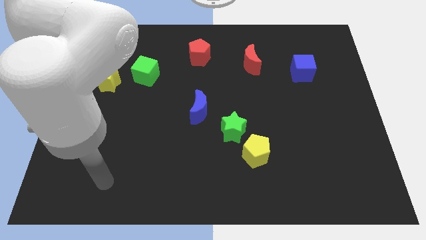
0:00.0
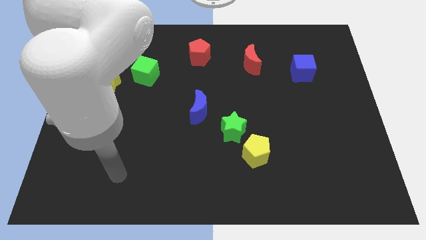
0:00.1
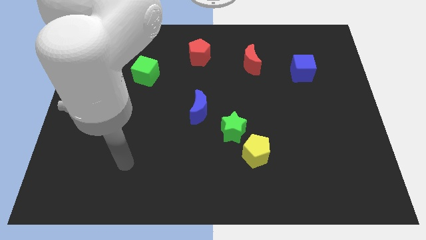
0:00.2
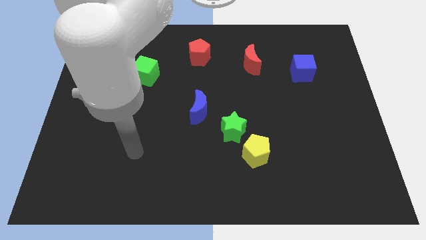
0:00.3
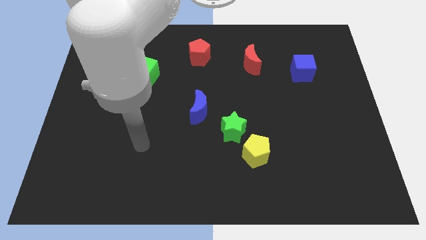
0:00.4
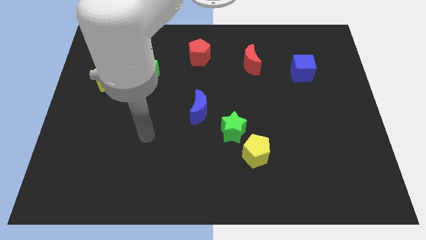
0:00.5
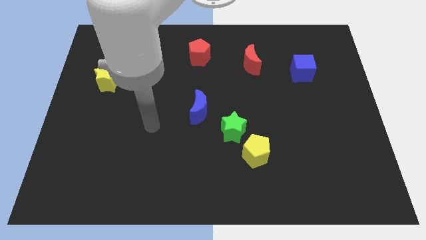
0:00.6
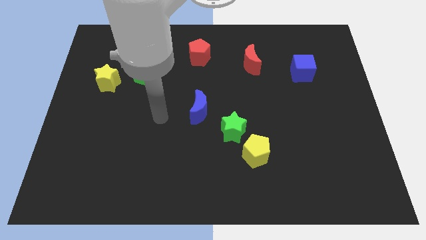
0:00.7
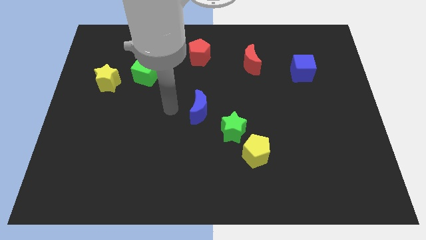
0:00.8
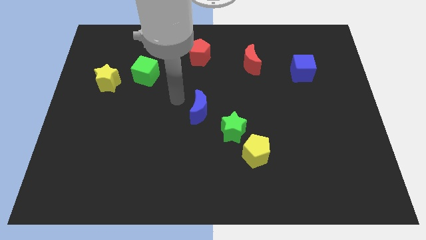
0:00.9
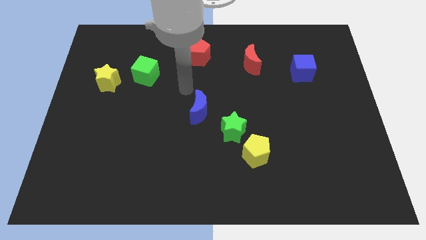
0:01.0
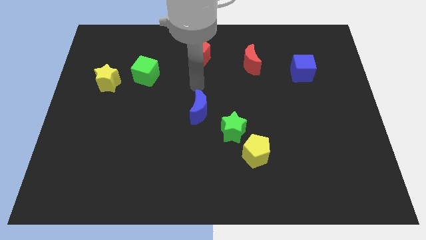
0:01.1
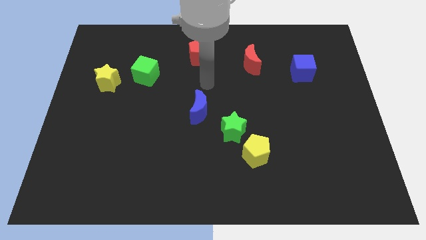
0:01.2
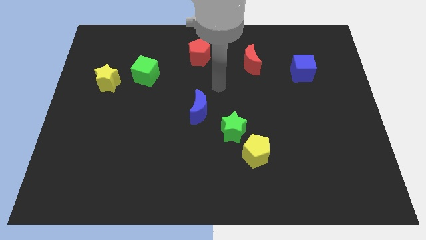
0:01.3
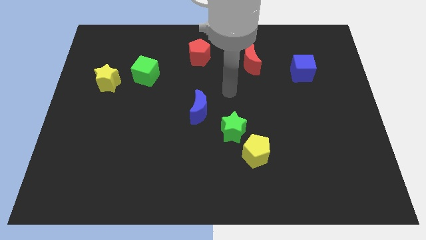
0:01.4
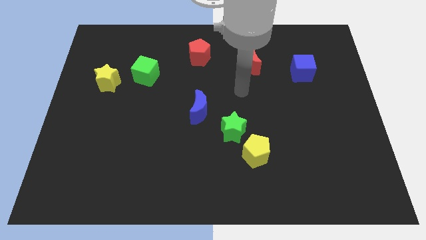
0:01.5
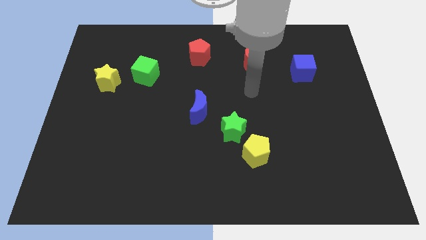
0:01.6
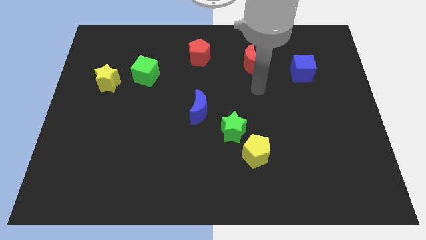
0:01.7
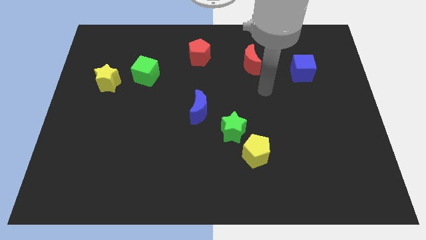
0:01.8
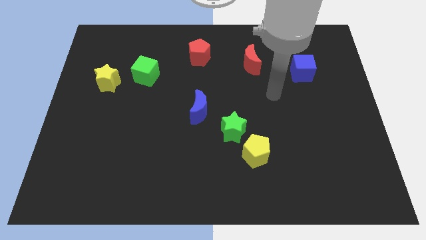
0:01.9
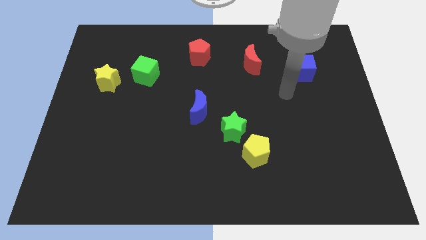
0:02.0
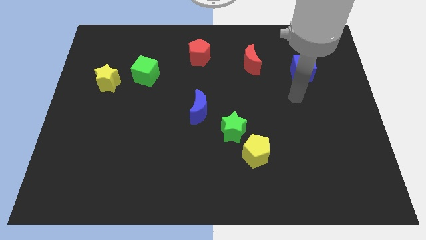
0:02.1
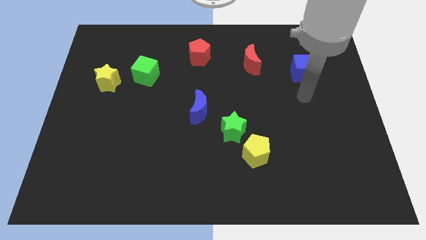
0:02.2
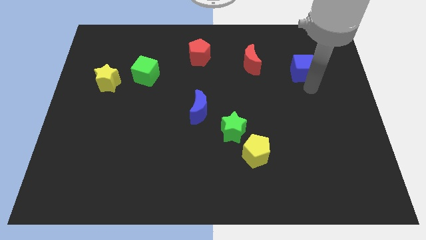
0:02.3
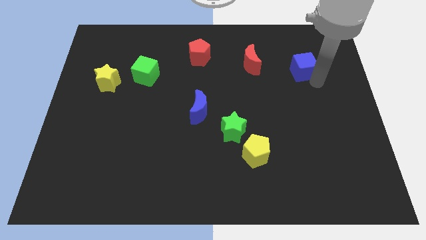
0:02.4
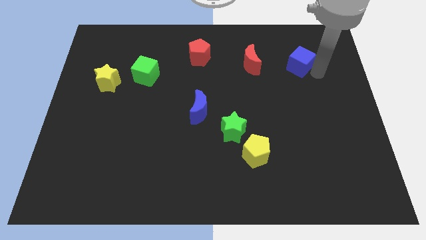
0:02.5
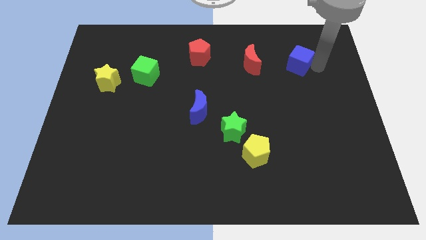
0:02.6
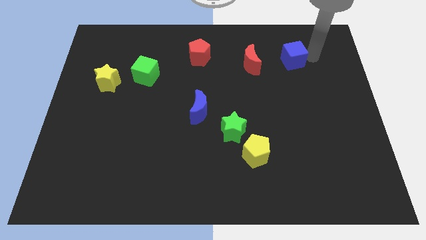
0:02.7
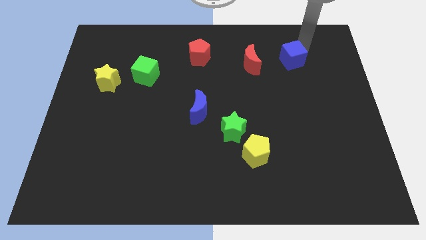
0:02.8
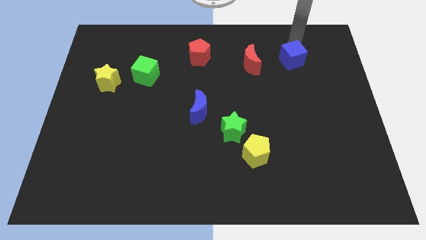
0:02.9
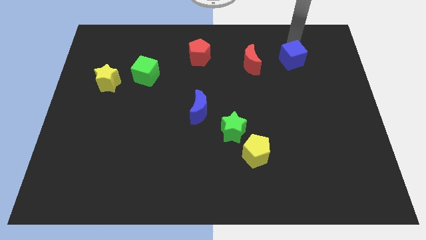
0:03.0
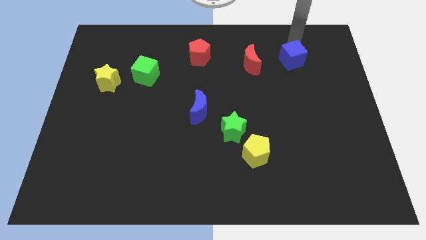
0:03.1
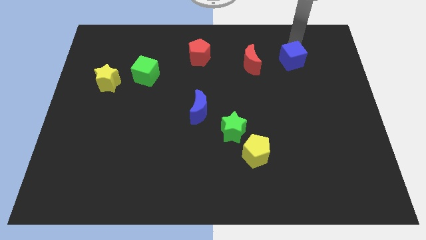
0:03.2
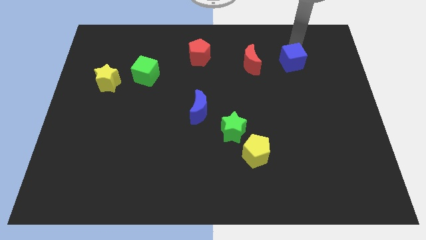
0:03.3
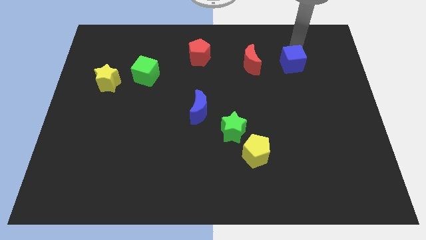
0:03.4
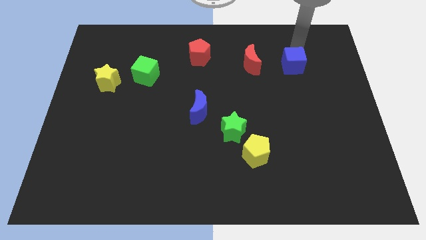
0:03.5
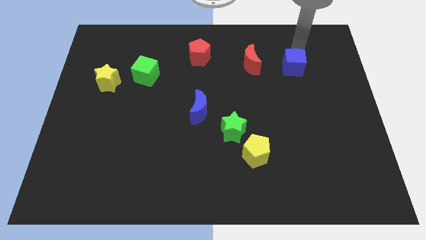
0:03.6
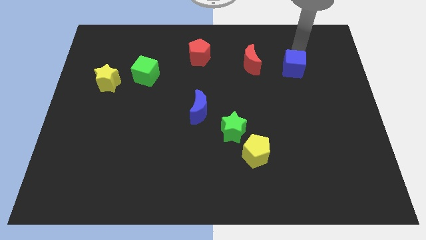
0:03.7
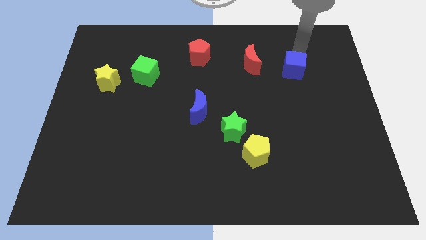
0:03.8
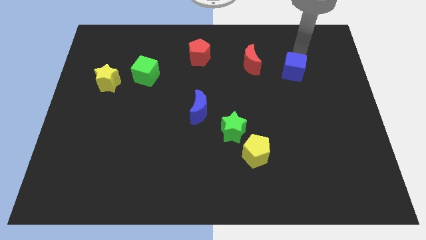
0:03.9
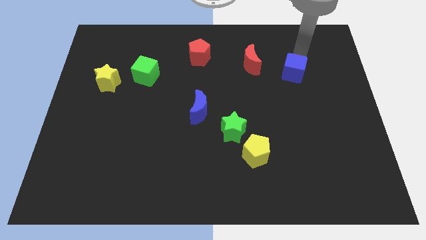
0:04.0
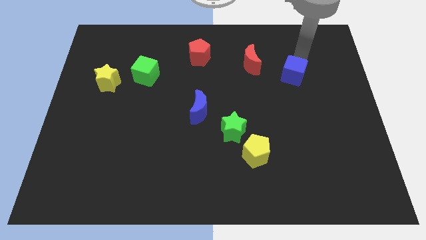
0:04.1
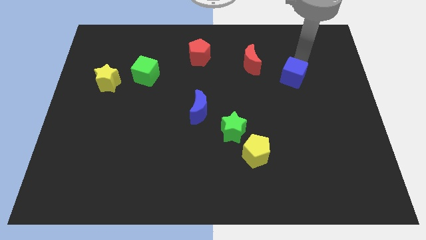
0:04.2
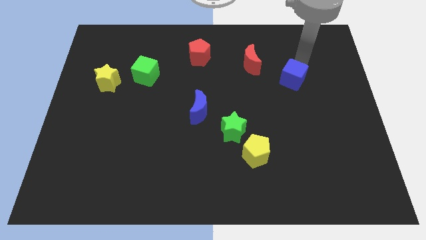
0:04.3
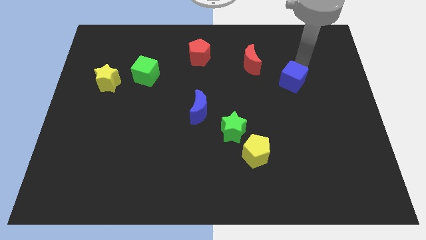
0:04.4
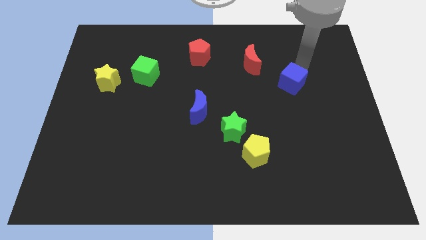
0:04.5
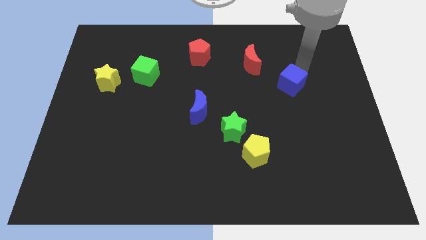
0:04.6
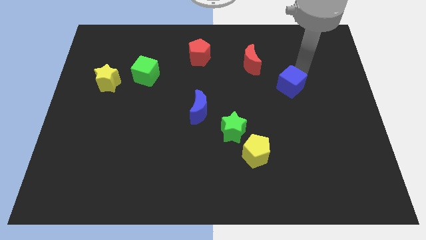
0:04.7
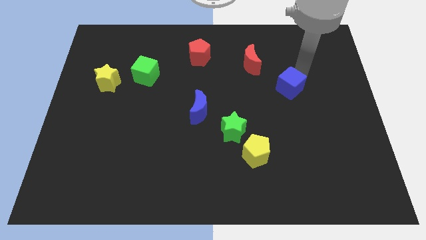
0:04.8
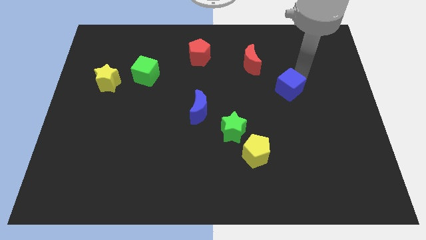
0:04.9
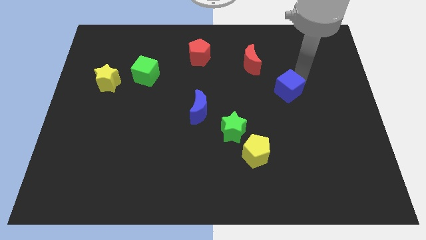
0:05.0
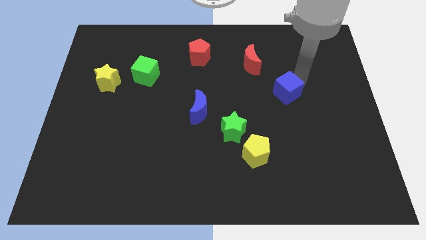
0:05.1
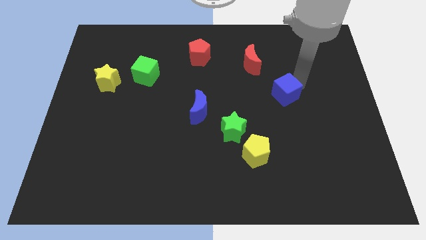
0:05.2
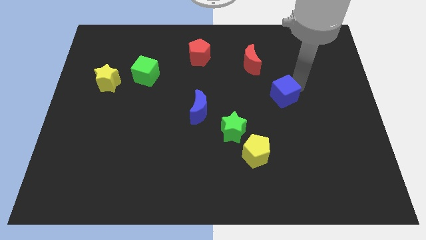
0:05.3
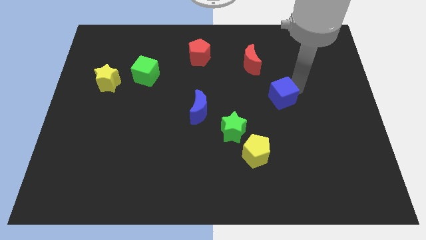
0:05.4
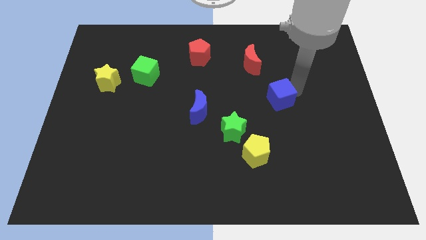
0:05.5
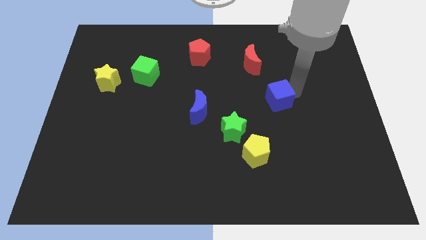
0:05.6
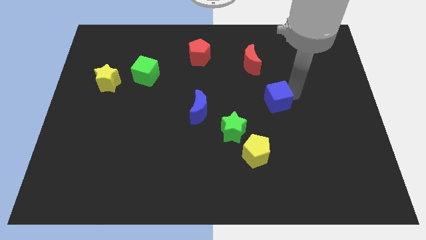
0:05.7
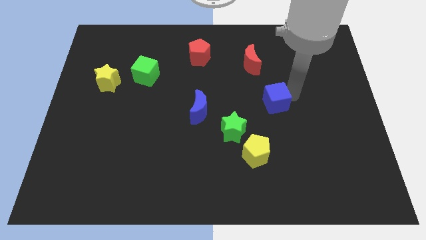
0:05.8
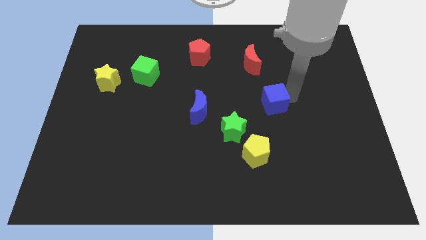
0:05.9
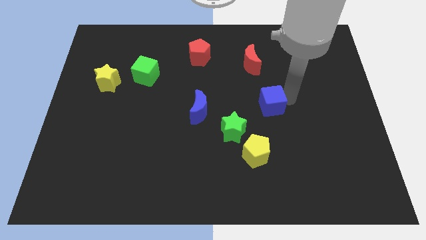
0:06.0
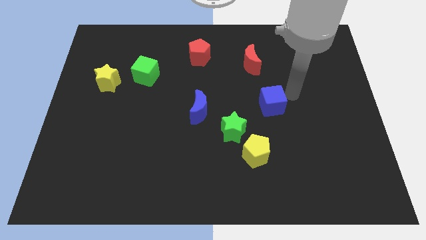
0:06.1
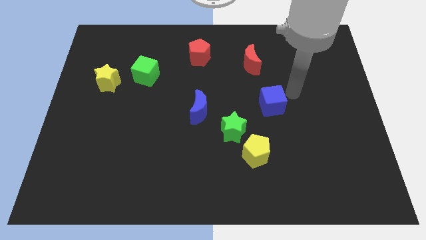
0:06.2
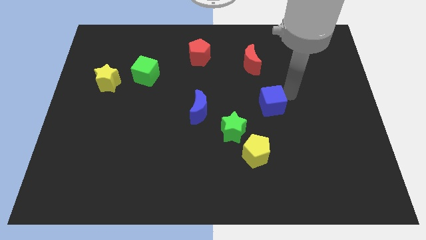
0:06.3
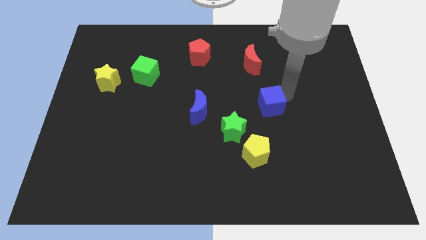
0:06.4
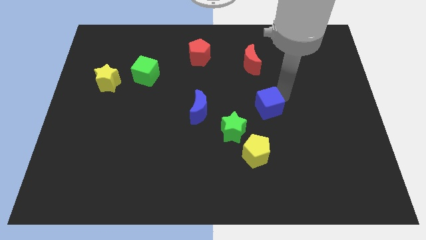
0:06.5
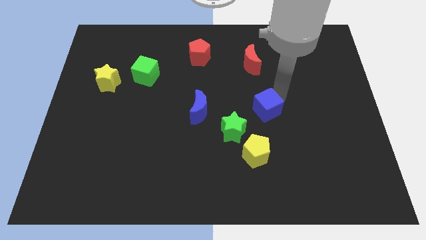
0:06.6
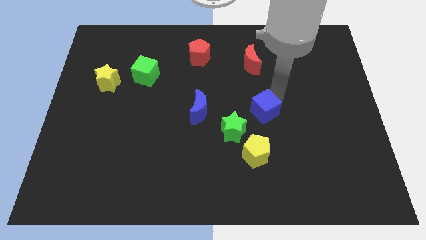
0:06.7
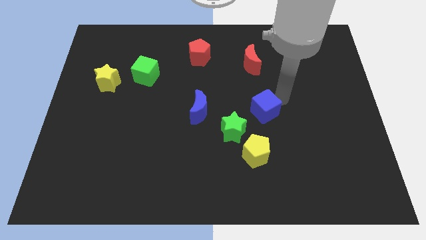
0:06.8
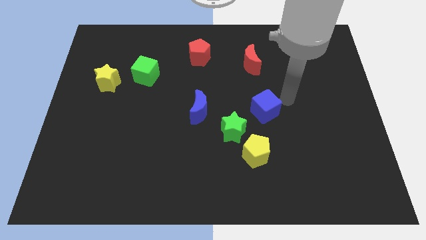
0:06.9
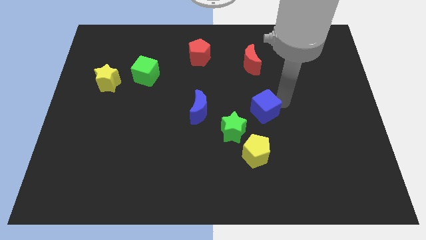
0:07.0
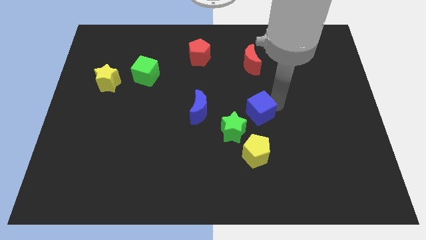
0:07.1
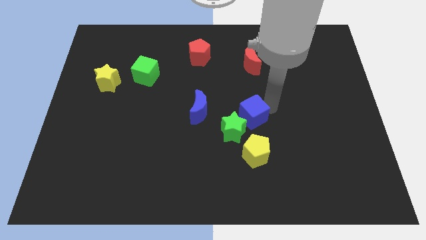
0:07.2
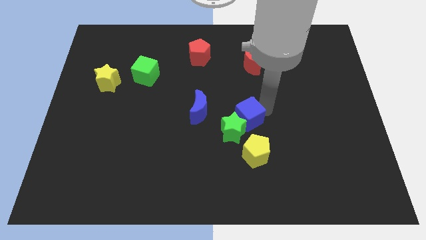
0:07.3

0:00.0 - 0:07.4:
push the blue cube close to the green star

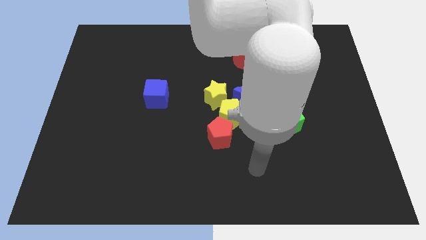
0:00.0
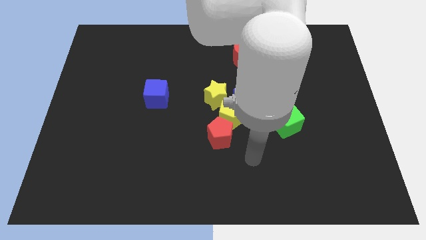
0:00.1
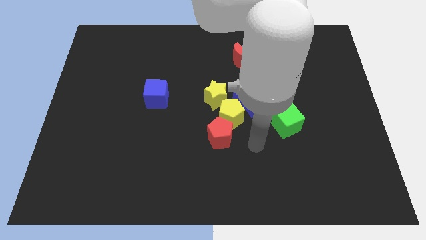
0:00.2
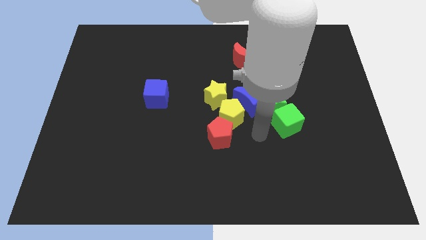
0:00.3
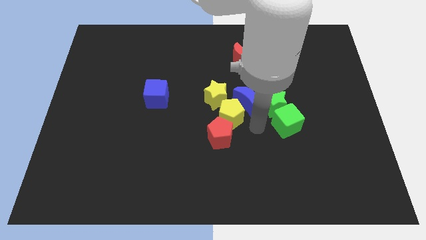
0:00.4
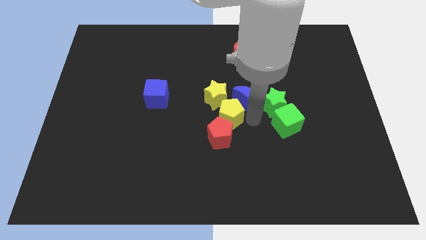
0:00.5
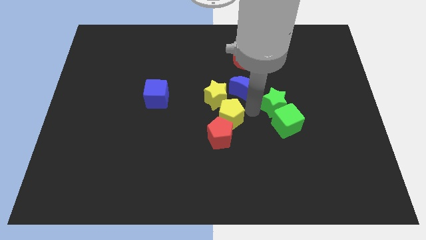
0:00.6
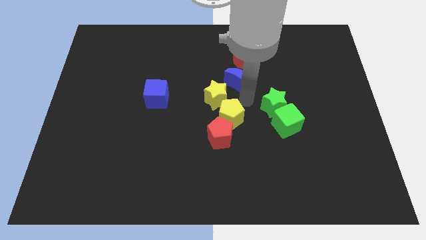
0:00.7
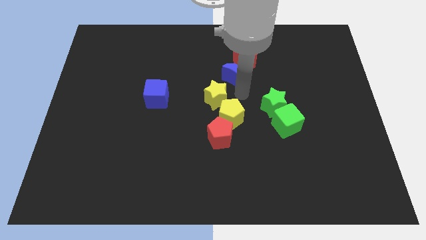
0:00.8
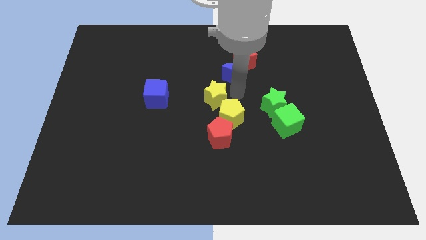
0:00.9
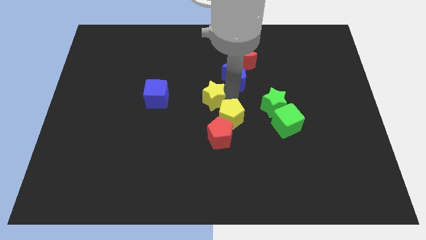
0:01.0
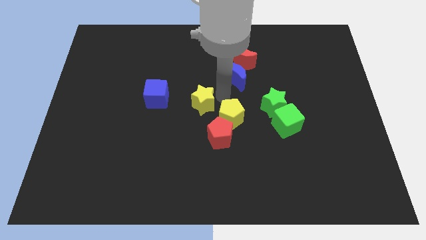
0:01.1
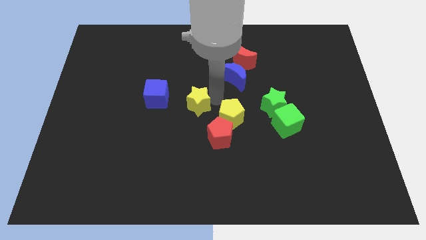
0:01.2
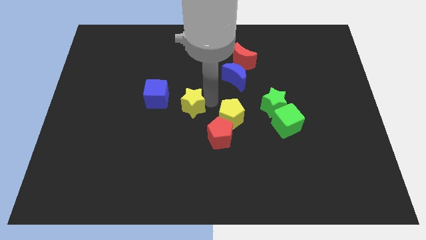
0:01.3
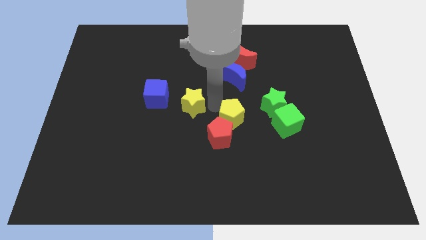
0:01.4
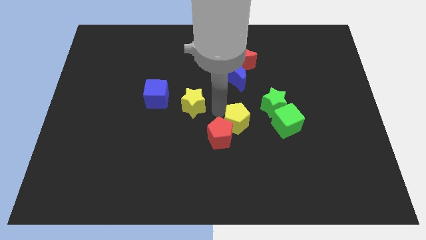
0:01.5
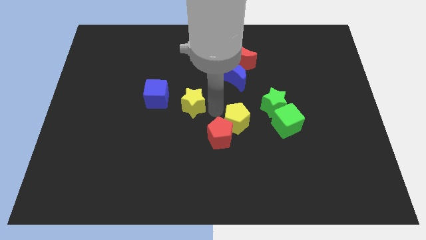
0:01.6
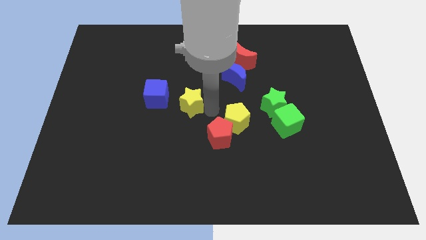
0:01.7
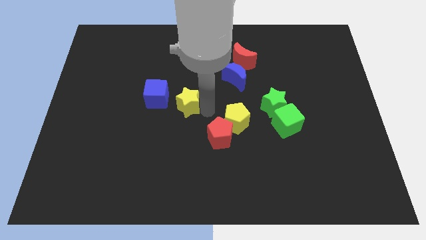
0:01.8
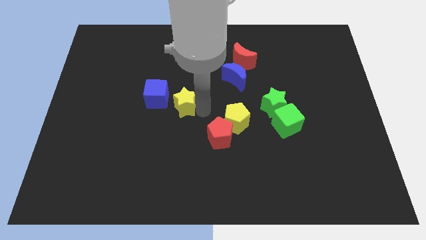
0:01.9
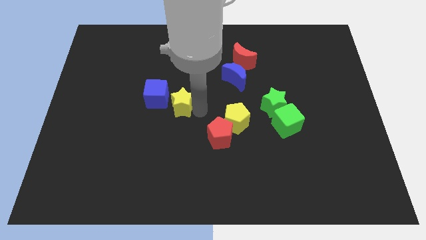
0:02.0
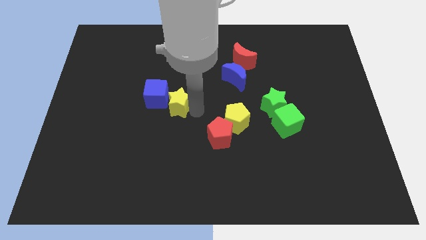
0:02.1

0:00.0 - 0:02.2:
move the yellow star close to the blue cube
